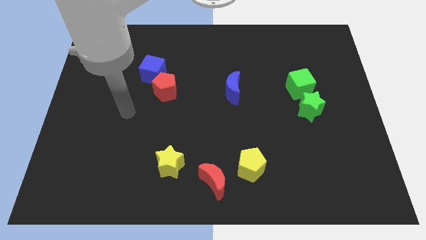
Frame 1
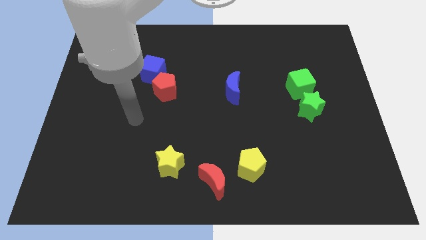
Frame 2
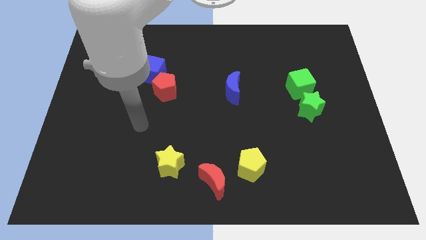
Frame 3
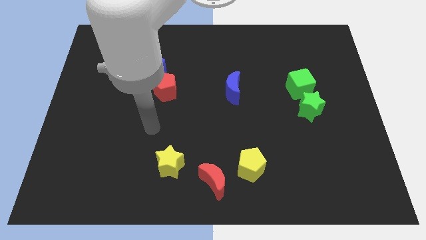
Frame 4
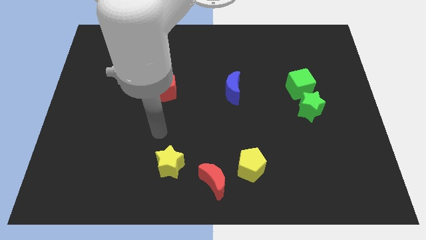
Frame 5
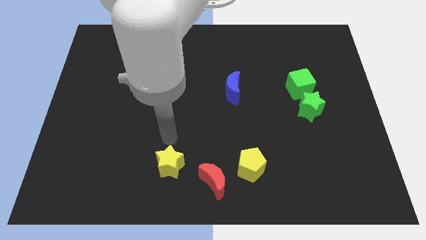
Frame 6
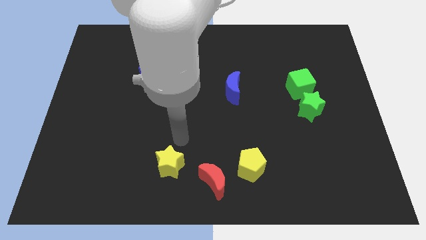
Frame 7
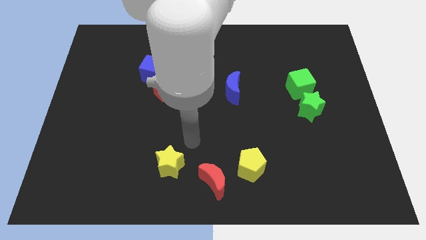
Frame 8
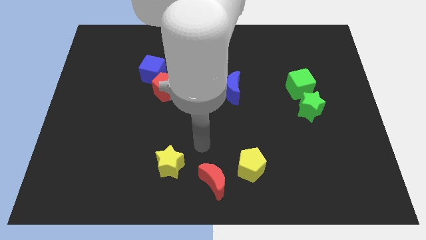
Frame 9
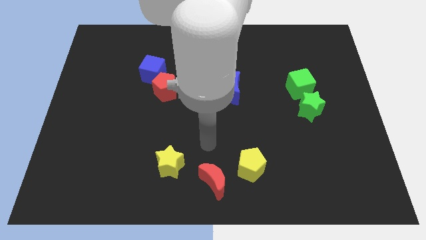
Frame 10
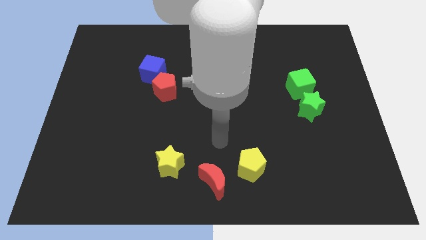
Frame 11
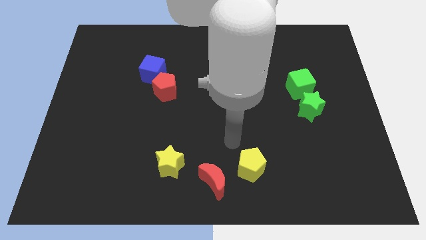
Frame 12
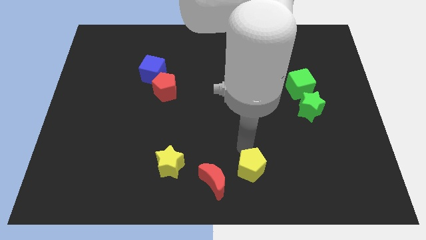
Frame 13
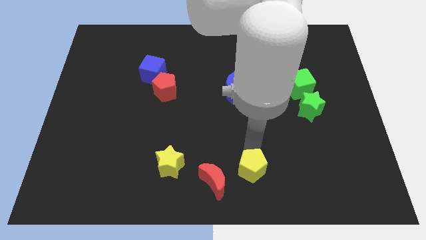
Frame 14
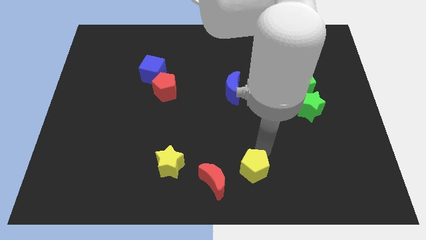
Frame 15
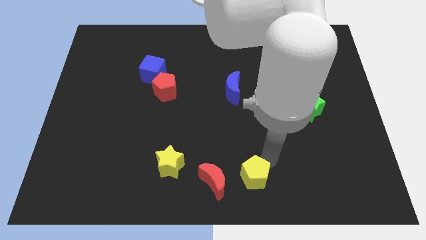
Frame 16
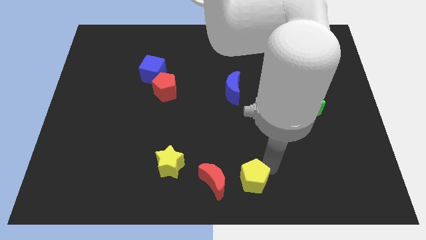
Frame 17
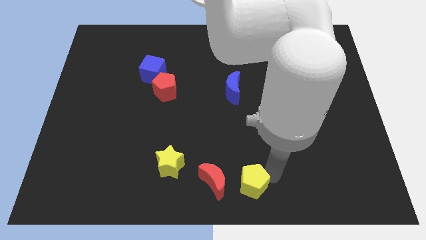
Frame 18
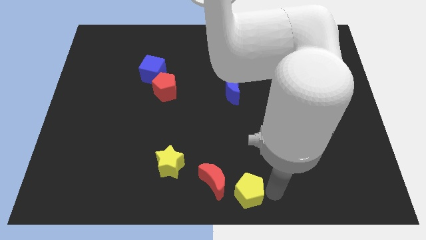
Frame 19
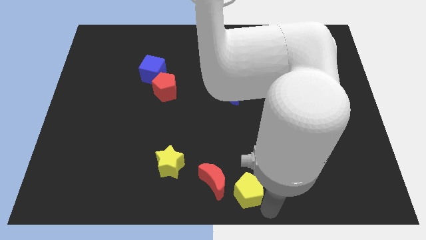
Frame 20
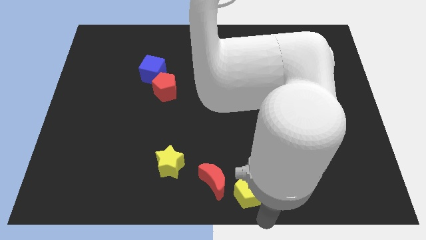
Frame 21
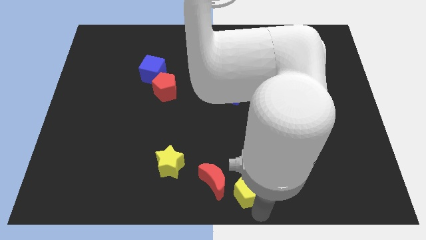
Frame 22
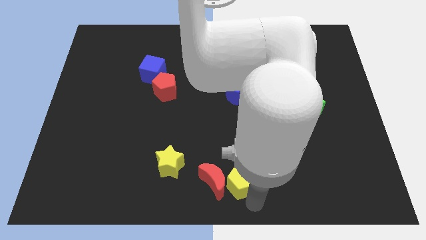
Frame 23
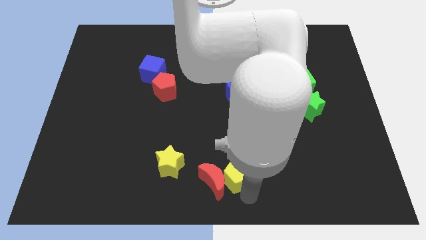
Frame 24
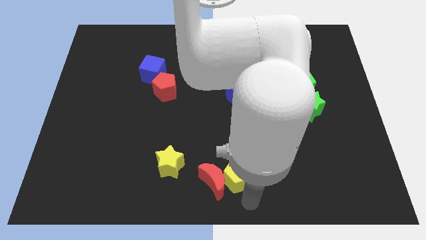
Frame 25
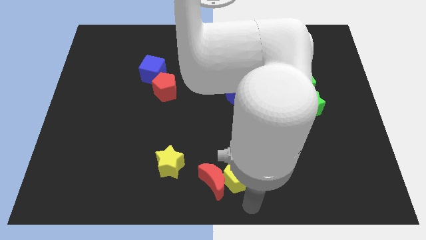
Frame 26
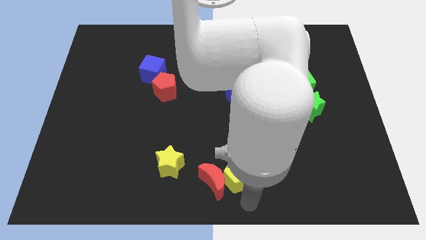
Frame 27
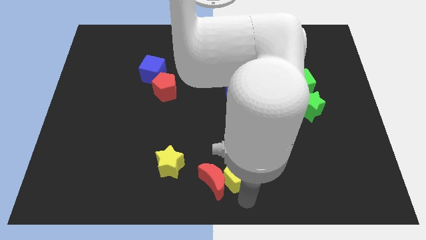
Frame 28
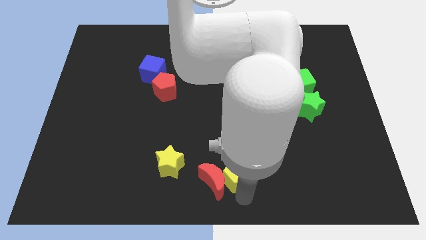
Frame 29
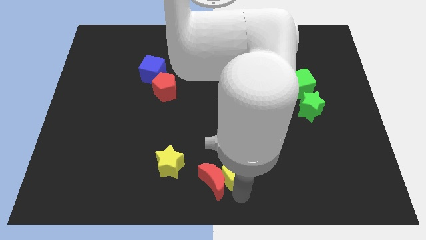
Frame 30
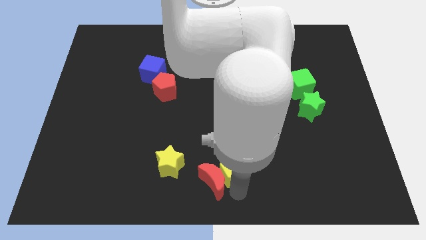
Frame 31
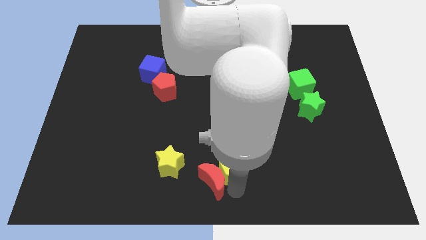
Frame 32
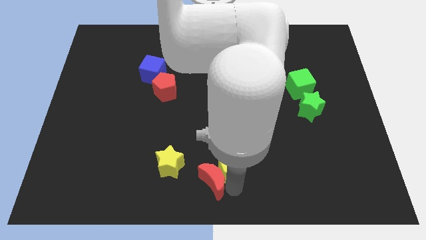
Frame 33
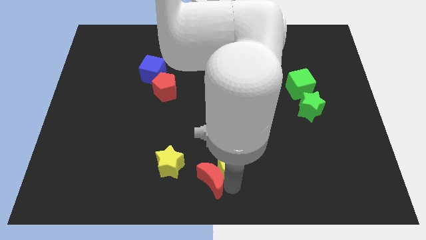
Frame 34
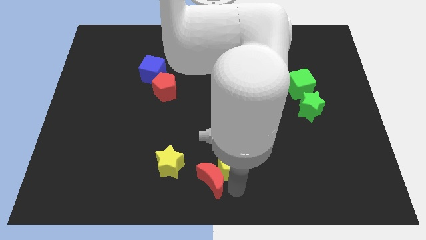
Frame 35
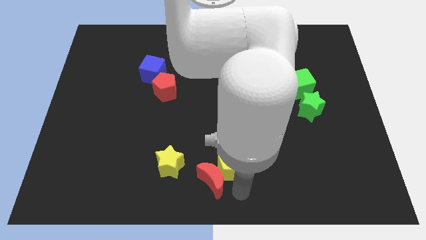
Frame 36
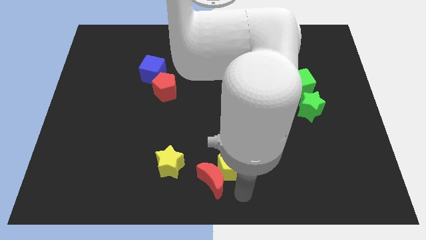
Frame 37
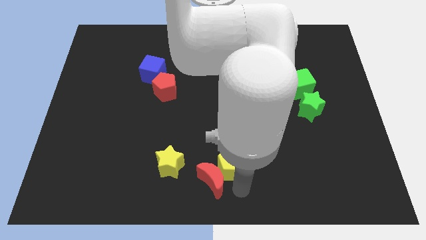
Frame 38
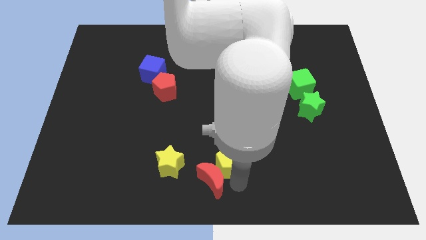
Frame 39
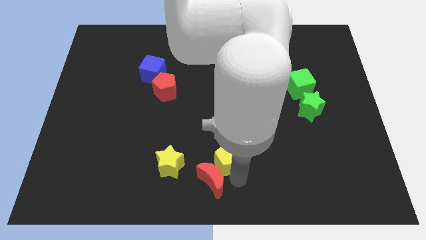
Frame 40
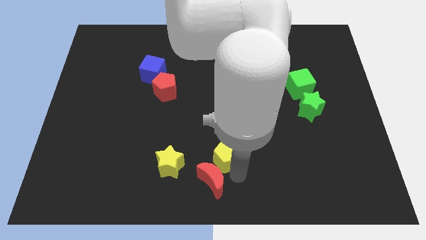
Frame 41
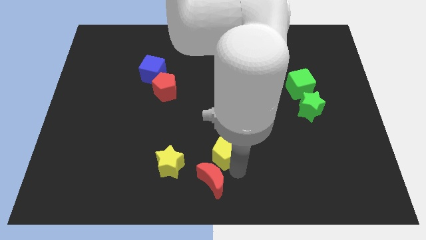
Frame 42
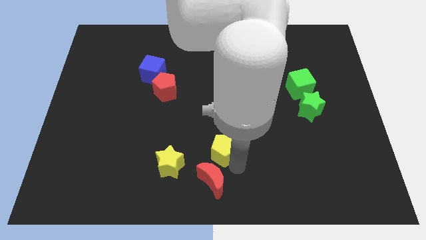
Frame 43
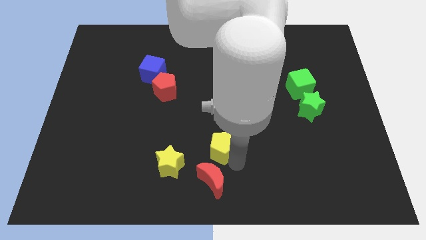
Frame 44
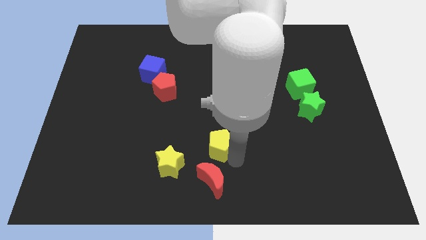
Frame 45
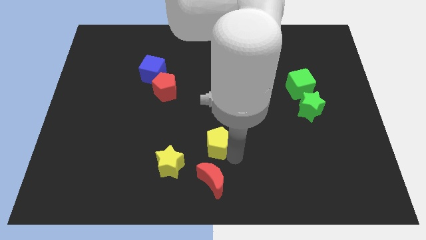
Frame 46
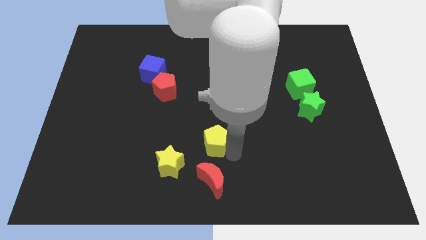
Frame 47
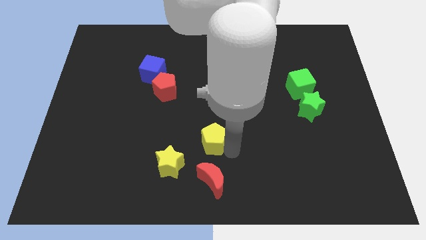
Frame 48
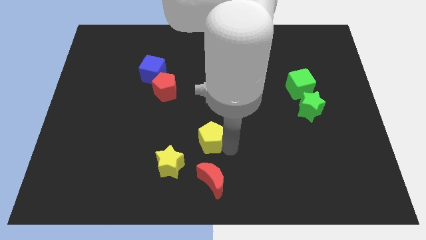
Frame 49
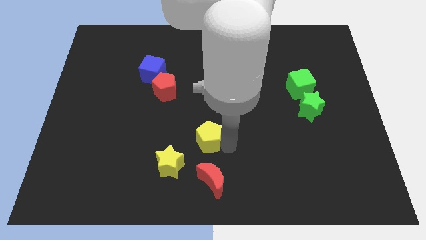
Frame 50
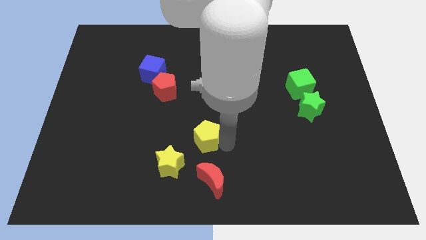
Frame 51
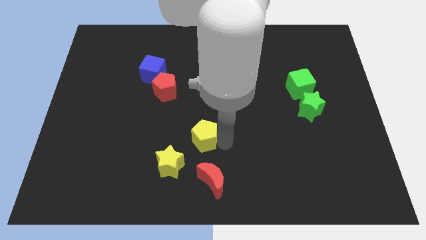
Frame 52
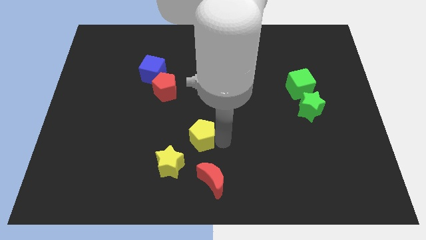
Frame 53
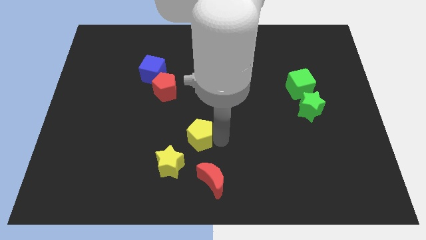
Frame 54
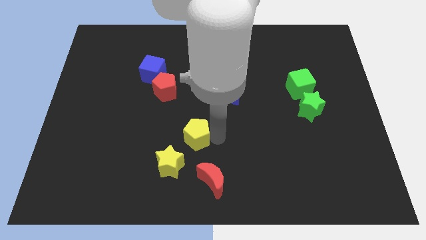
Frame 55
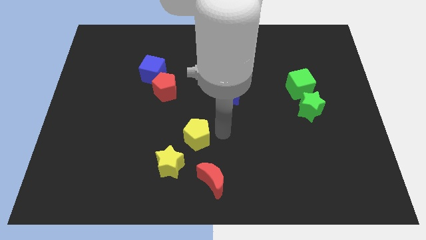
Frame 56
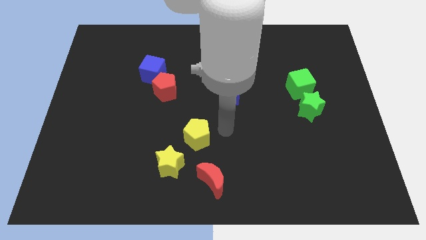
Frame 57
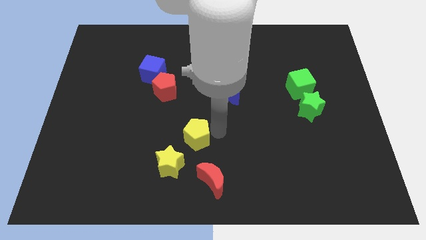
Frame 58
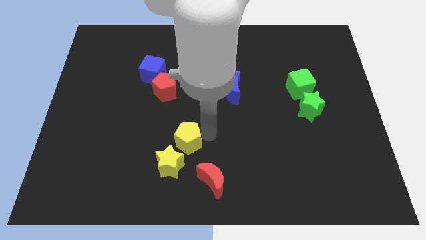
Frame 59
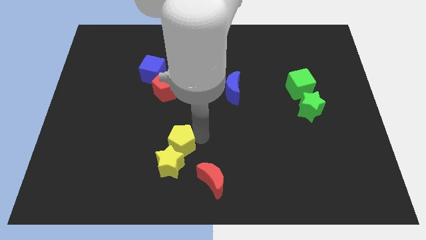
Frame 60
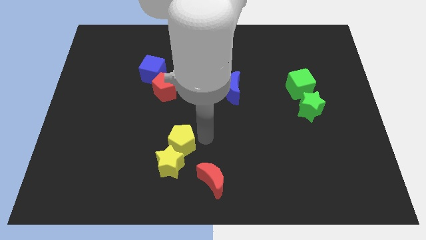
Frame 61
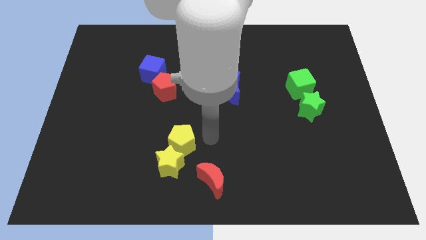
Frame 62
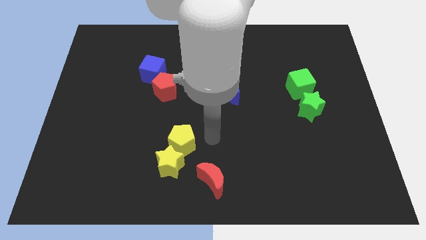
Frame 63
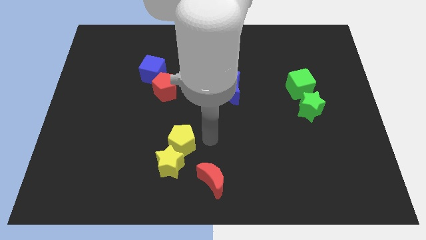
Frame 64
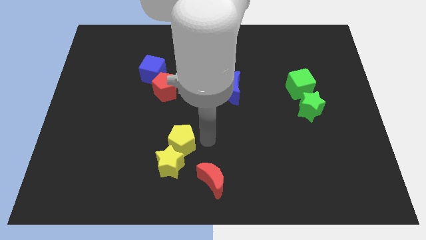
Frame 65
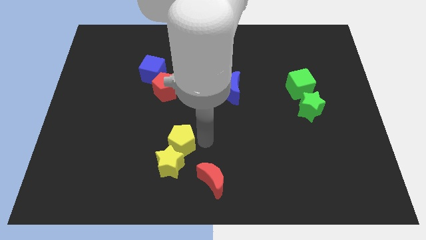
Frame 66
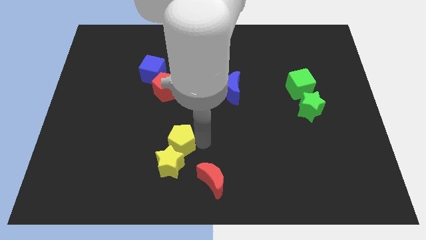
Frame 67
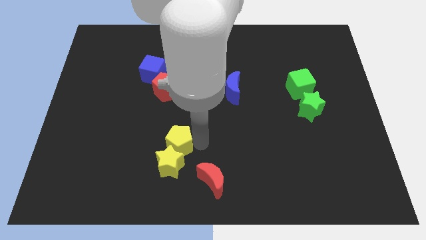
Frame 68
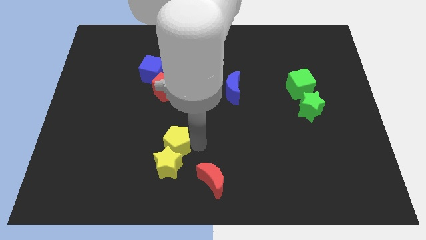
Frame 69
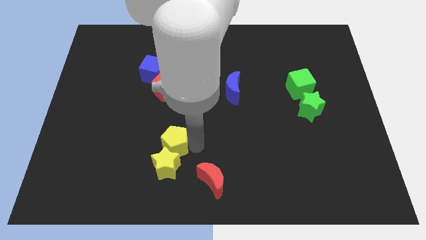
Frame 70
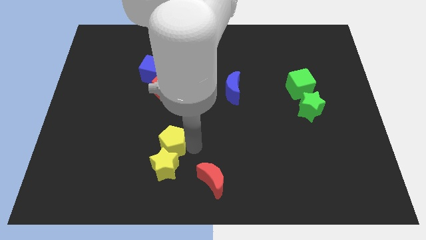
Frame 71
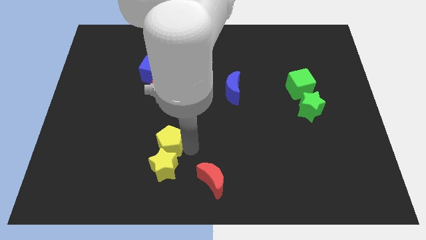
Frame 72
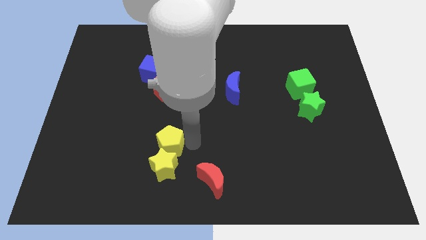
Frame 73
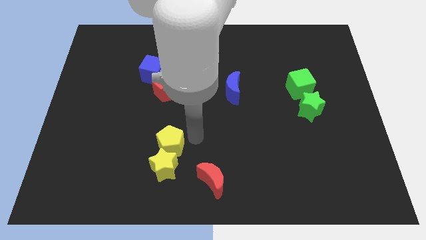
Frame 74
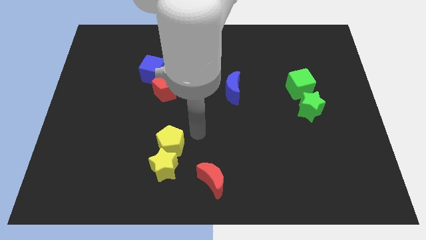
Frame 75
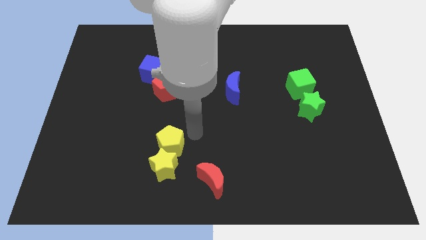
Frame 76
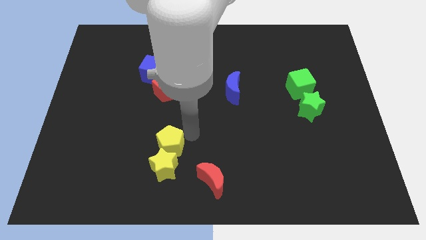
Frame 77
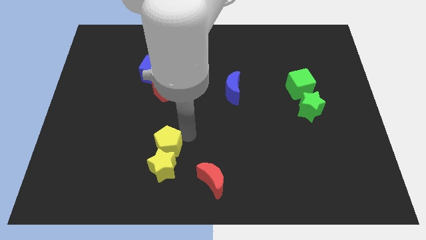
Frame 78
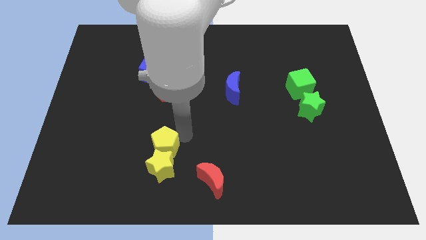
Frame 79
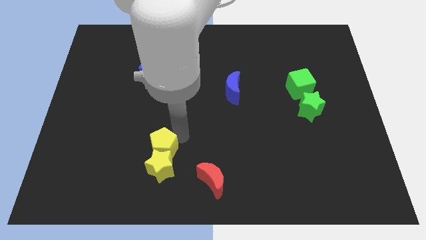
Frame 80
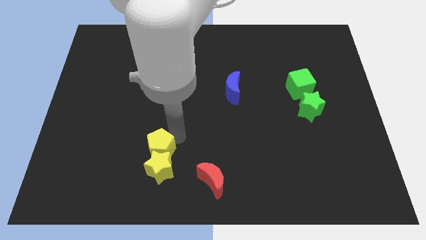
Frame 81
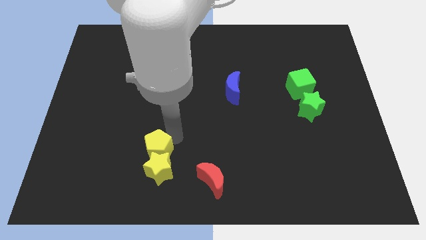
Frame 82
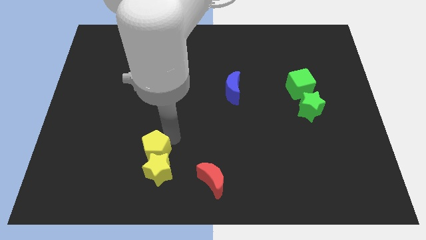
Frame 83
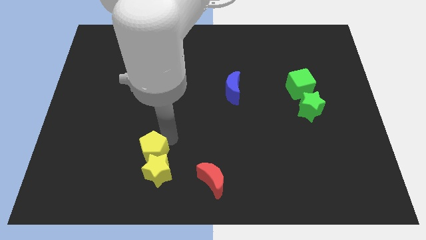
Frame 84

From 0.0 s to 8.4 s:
push the yellow pentagon left
